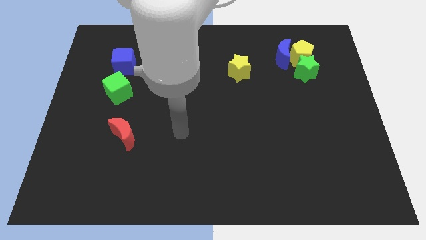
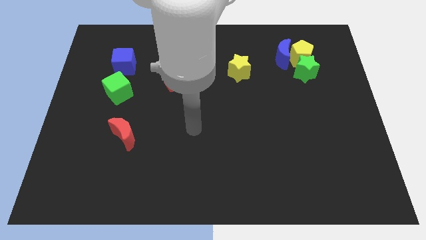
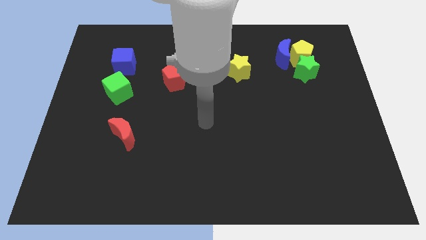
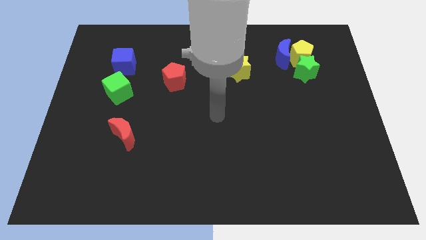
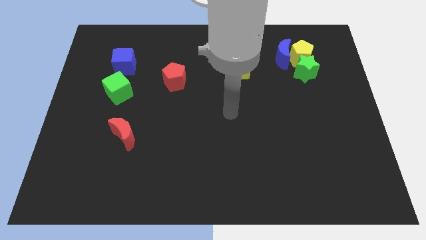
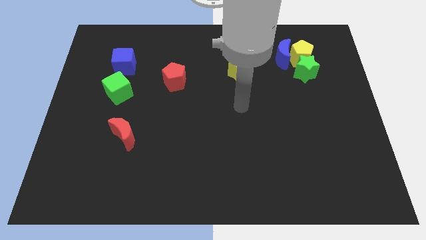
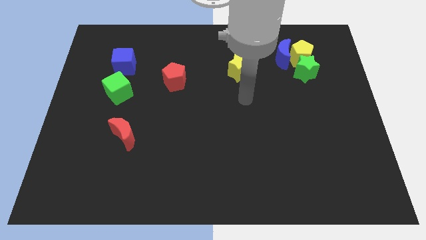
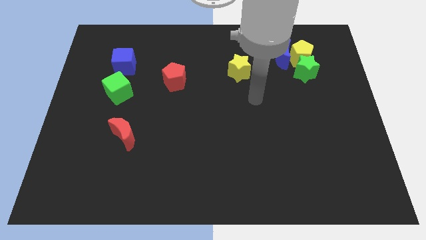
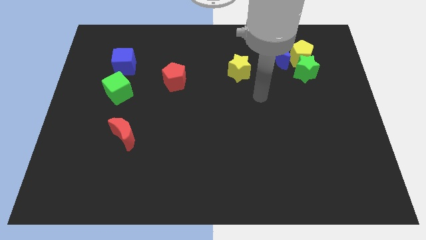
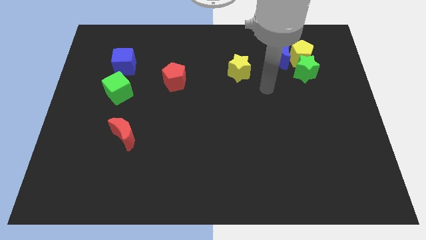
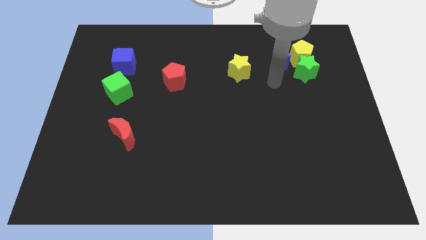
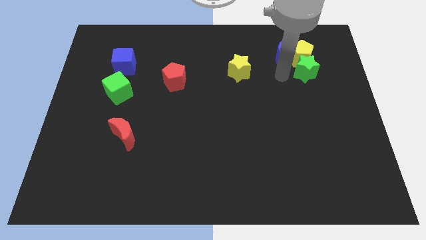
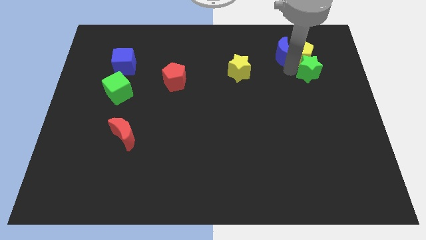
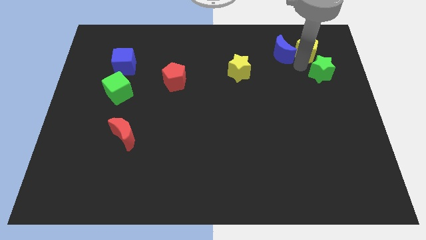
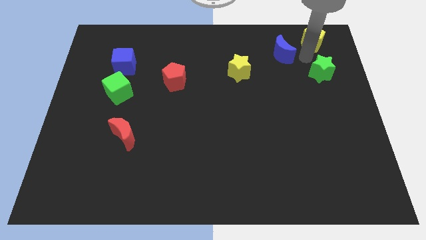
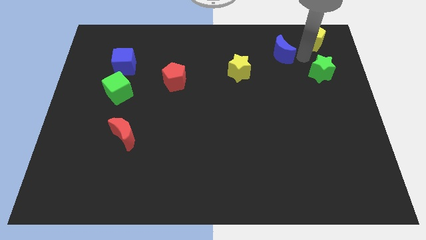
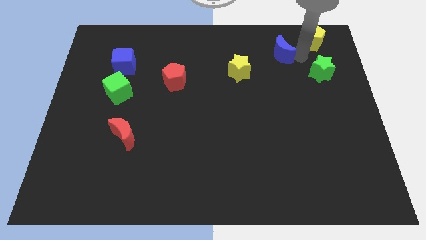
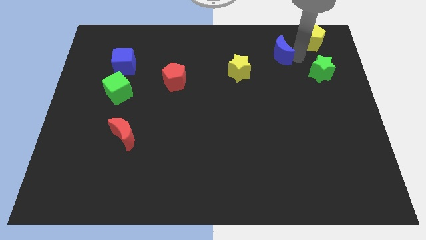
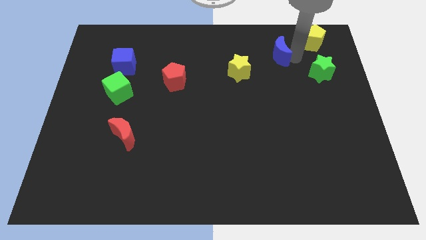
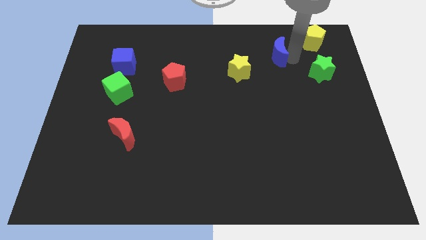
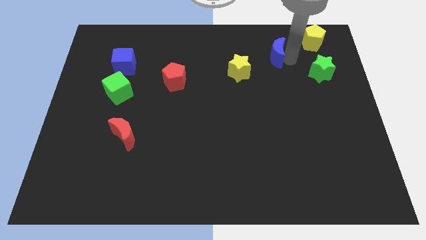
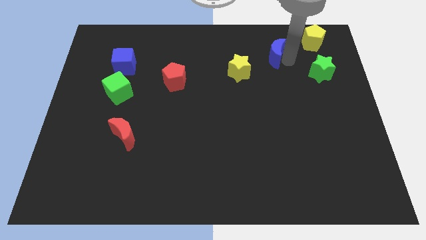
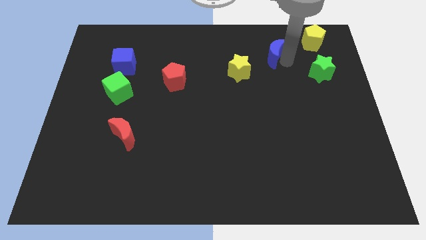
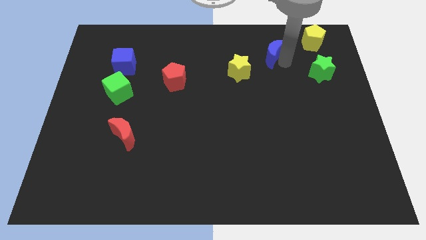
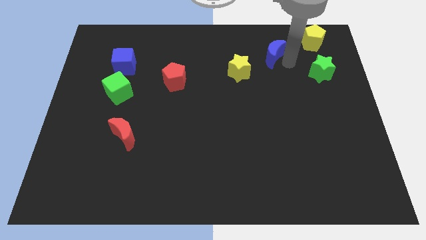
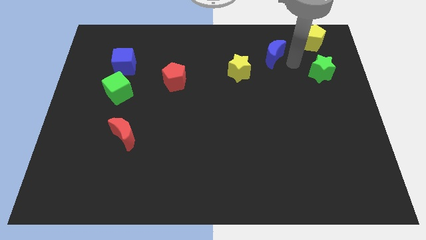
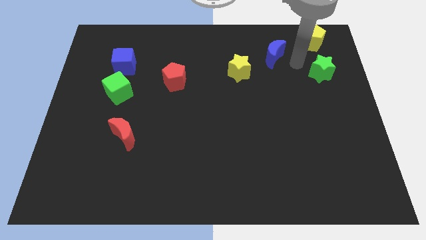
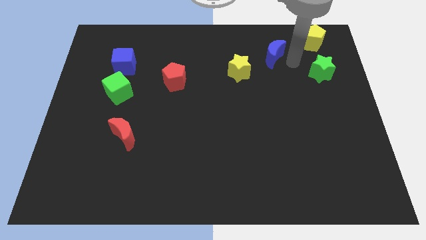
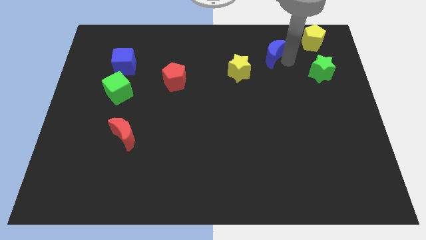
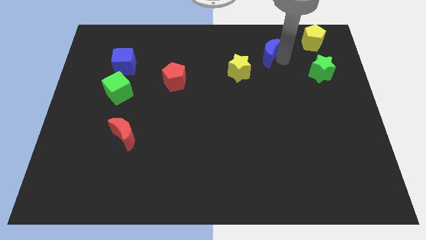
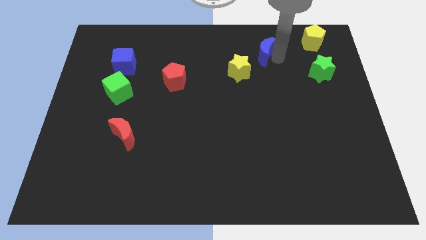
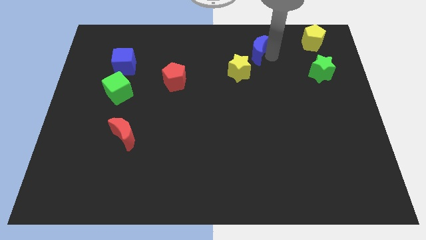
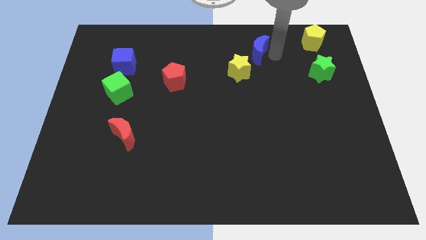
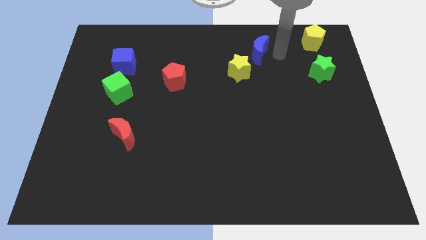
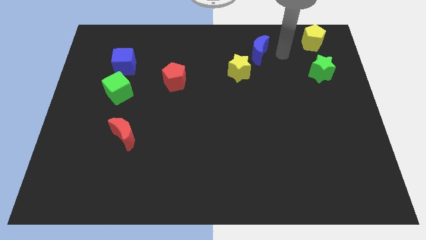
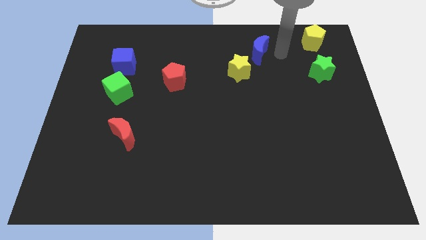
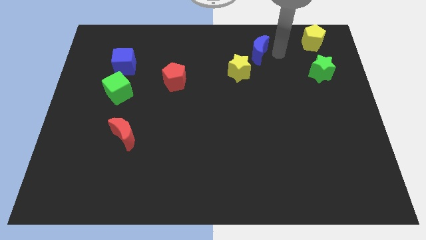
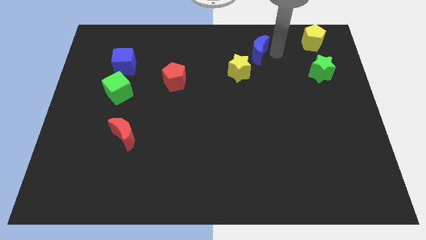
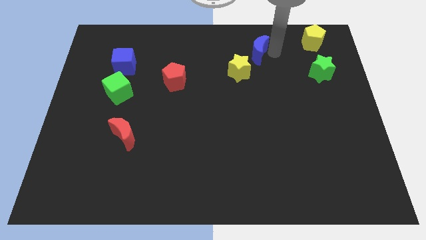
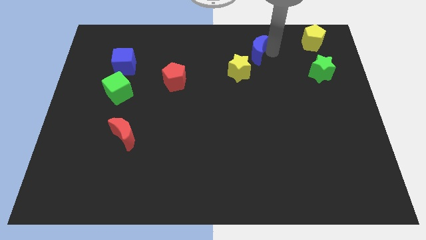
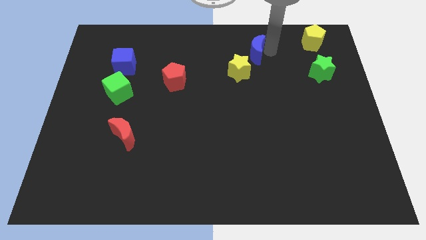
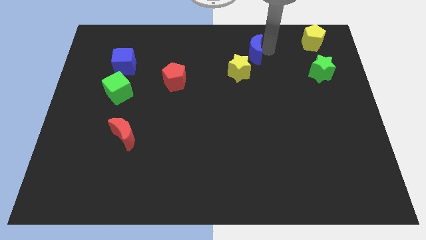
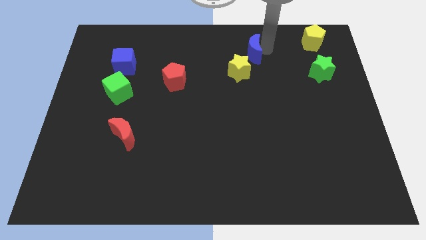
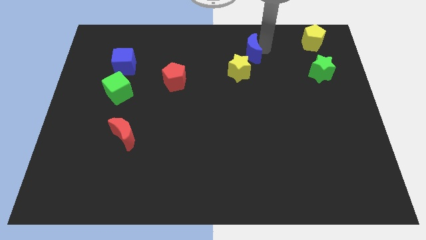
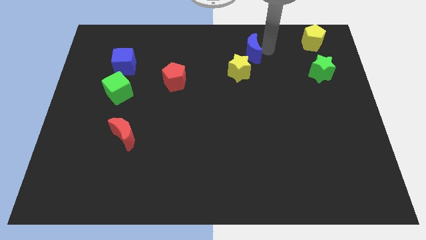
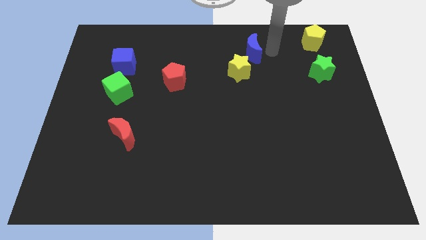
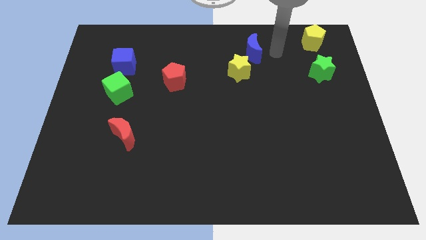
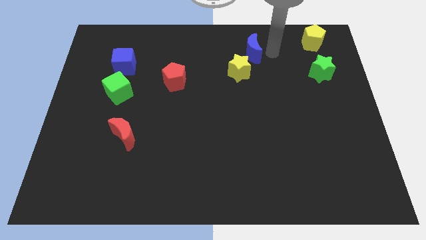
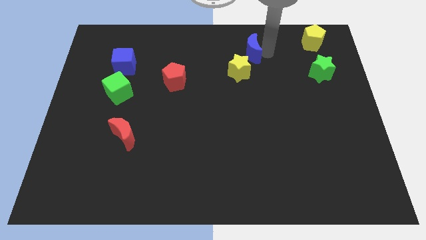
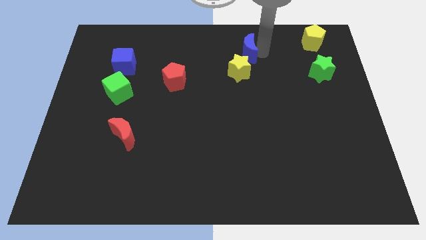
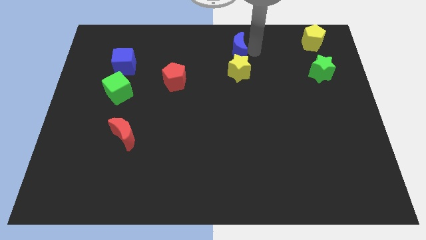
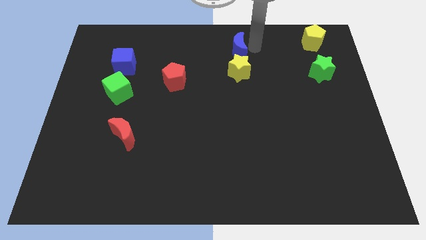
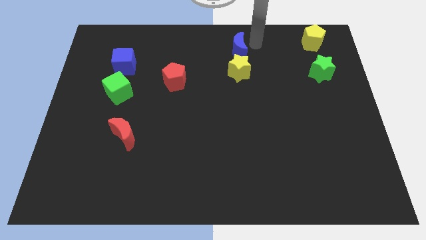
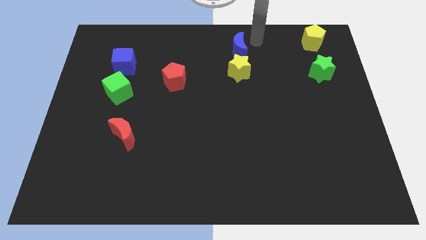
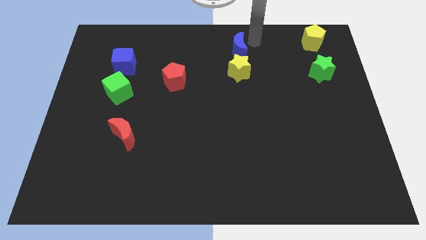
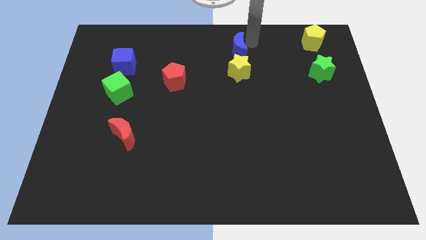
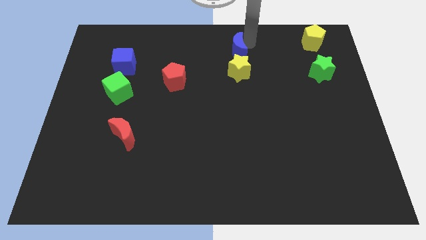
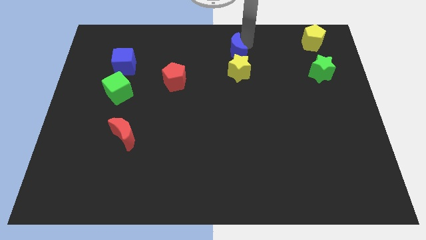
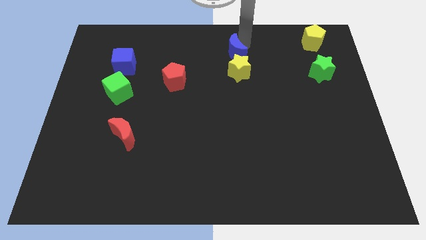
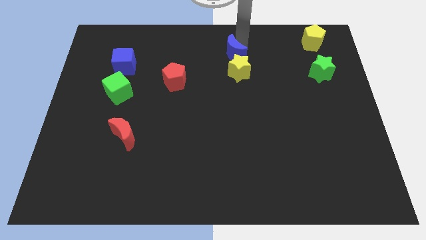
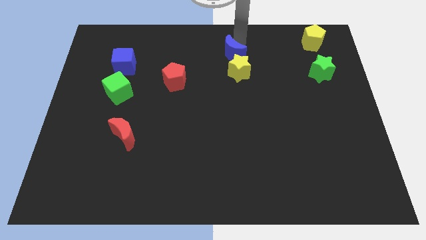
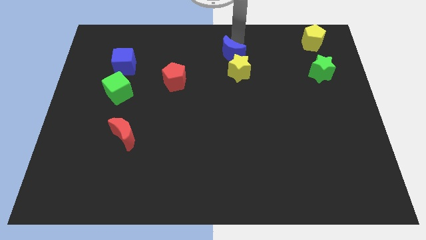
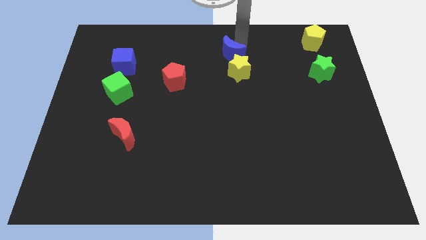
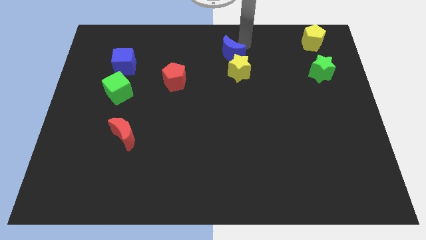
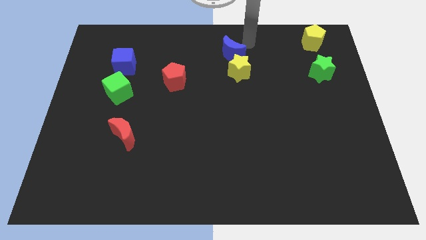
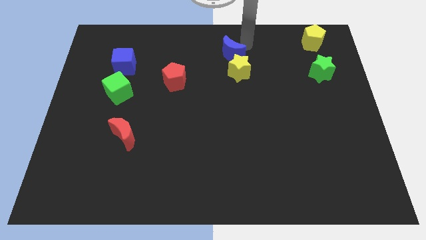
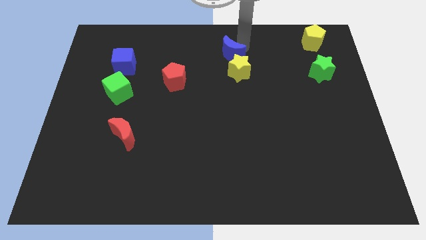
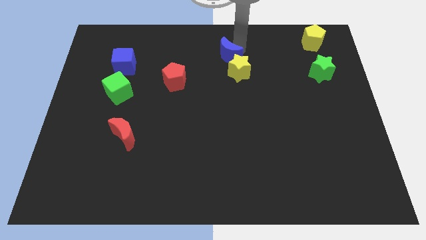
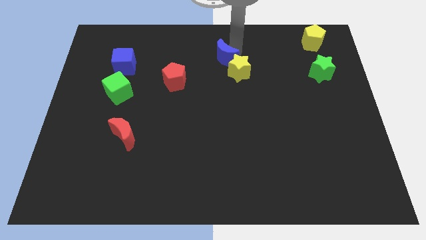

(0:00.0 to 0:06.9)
move the blue moon left of the yellow star

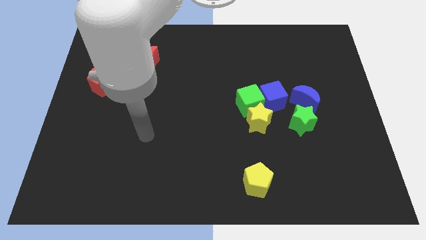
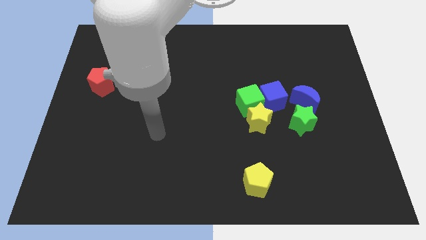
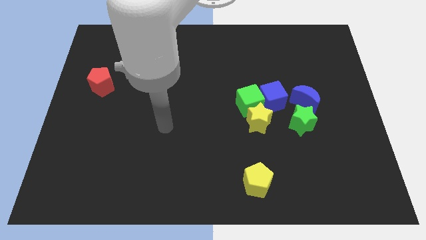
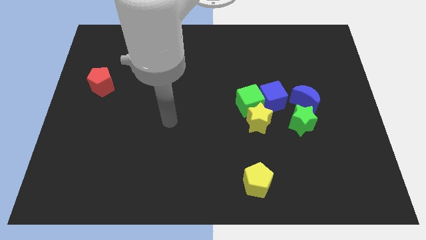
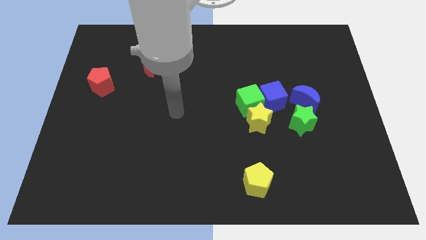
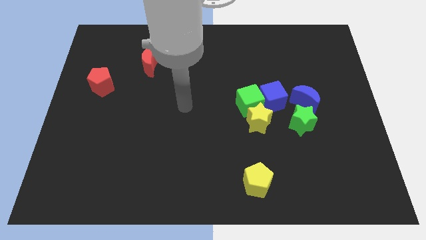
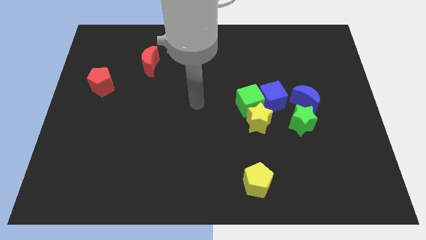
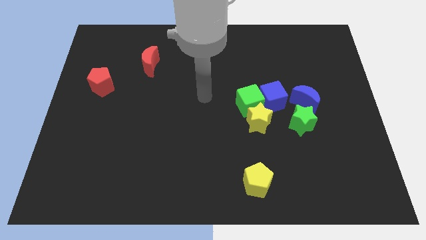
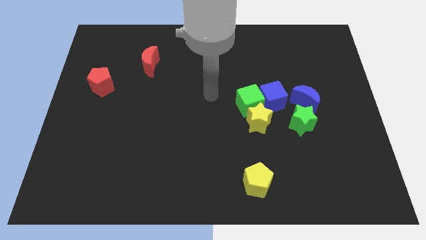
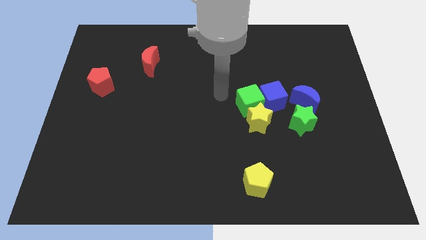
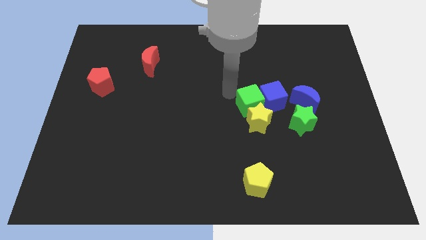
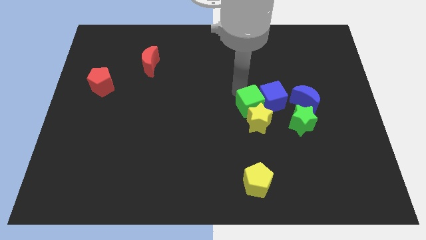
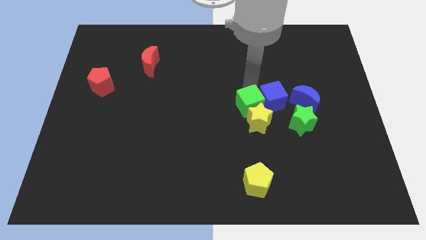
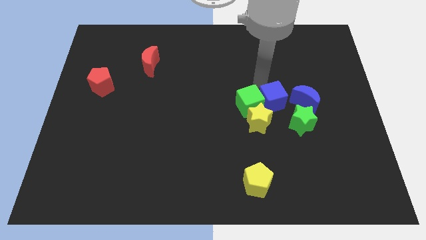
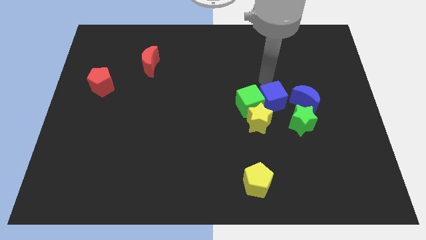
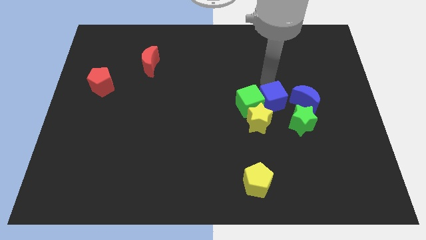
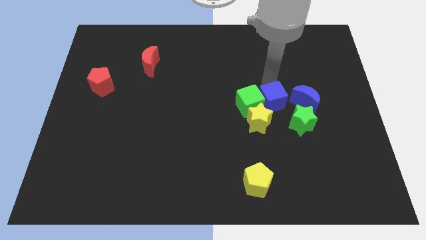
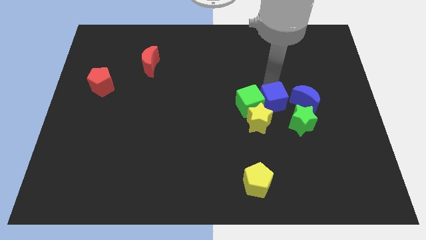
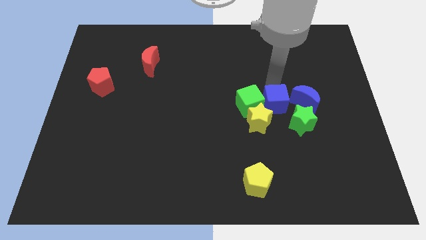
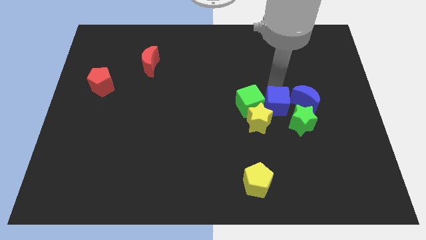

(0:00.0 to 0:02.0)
push the blue cube just right of the yellow star
